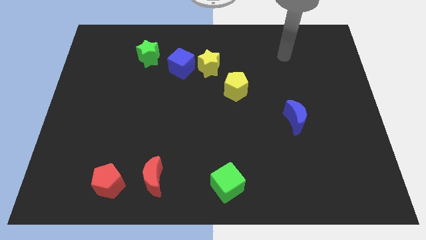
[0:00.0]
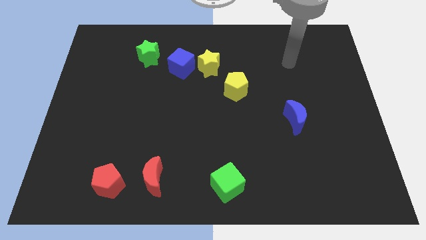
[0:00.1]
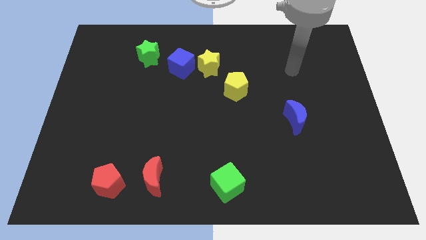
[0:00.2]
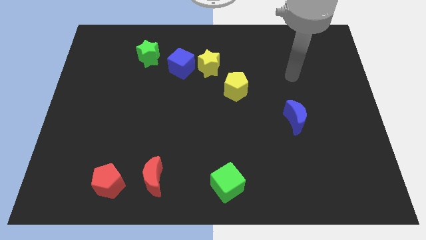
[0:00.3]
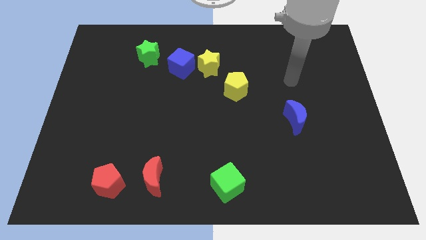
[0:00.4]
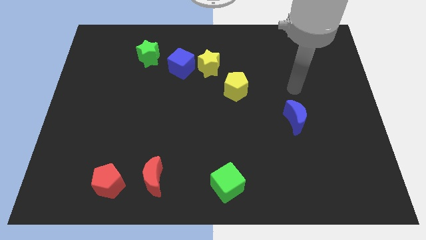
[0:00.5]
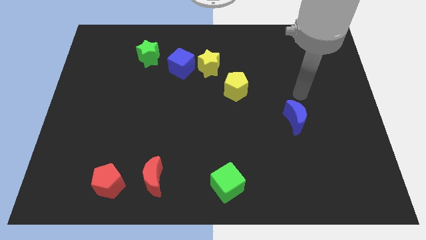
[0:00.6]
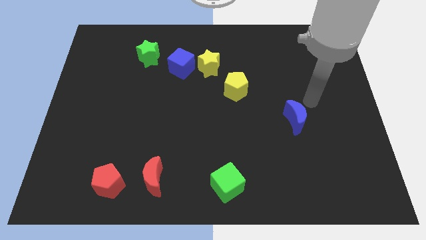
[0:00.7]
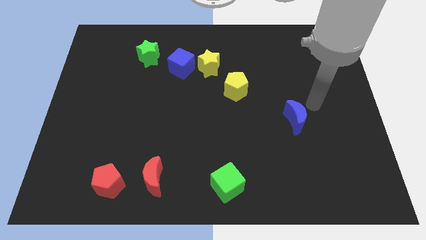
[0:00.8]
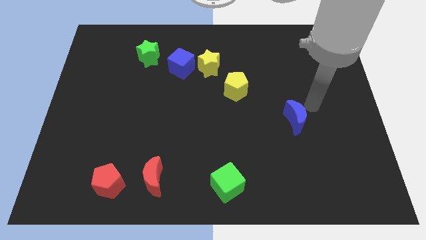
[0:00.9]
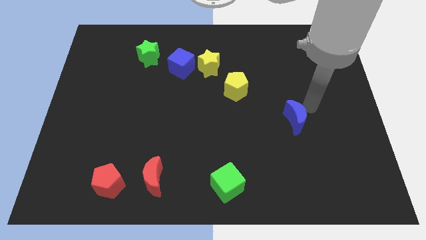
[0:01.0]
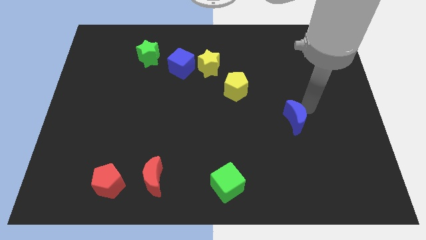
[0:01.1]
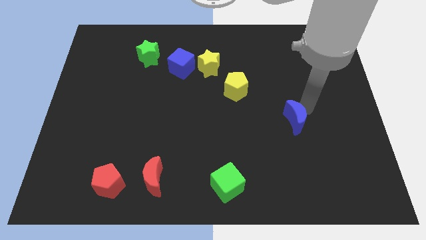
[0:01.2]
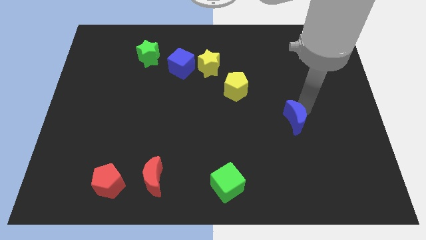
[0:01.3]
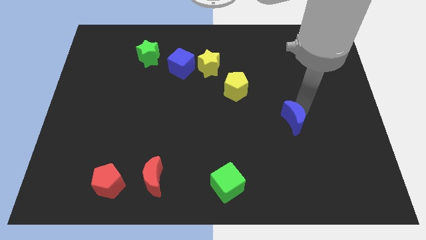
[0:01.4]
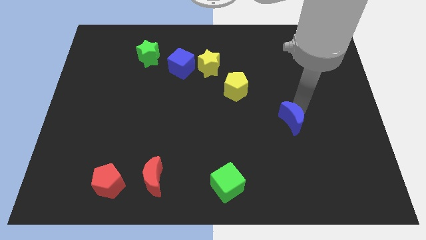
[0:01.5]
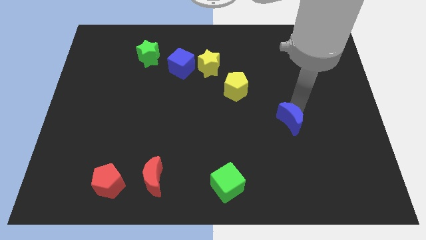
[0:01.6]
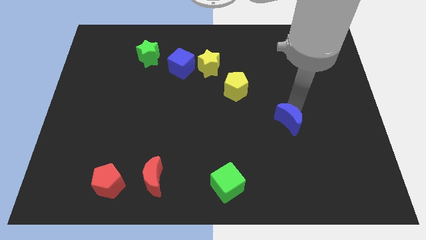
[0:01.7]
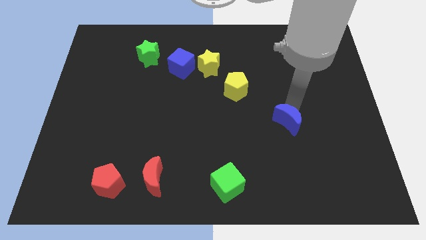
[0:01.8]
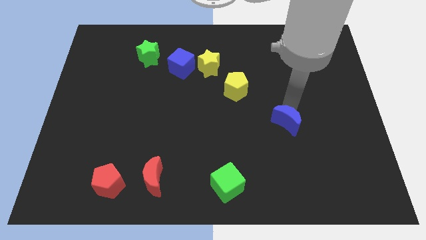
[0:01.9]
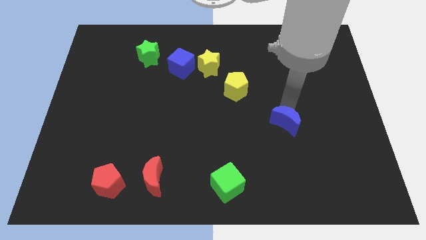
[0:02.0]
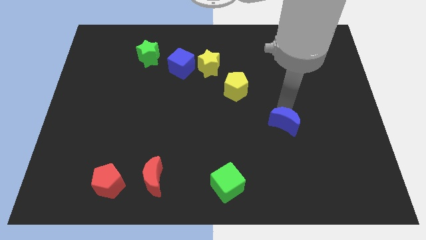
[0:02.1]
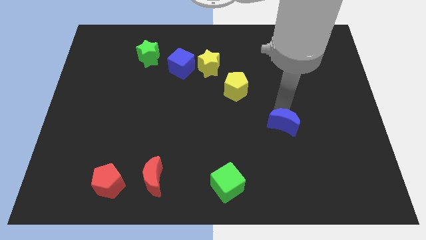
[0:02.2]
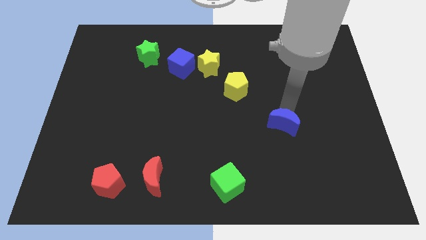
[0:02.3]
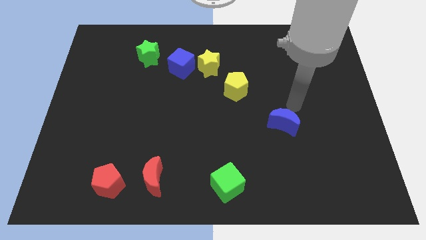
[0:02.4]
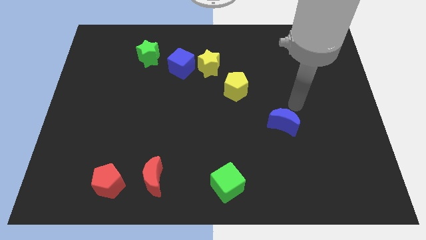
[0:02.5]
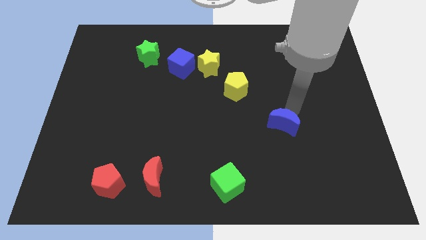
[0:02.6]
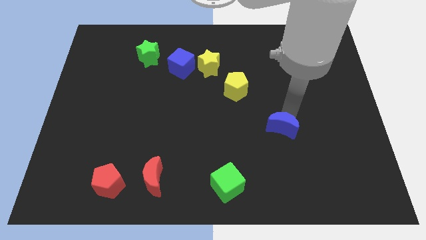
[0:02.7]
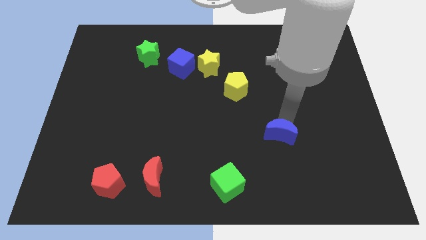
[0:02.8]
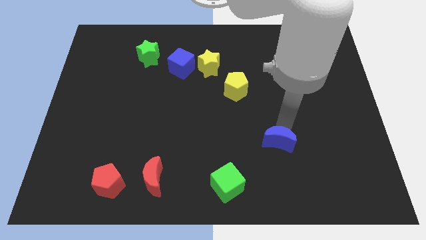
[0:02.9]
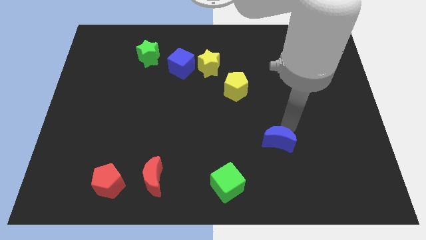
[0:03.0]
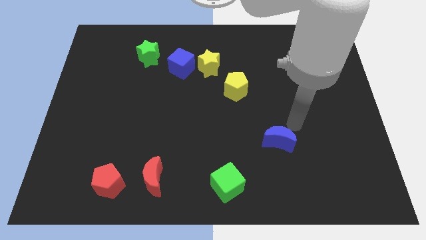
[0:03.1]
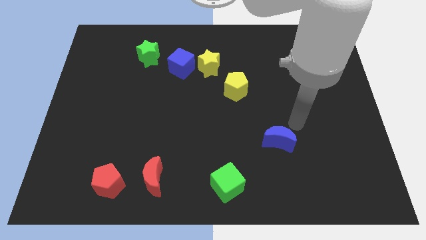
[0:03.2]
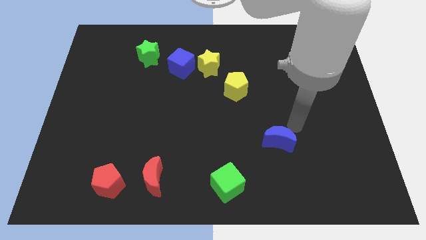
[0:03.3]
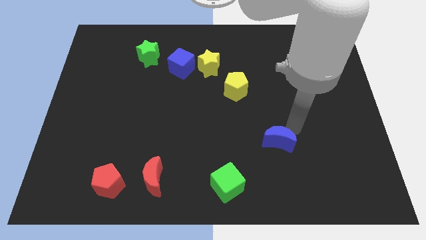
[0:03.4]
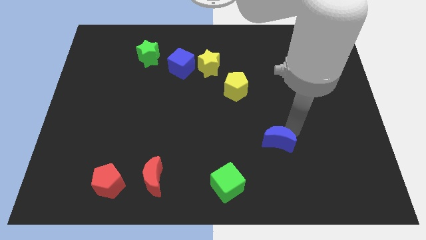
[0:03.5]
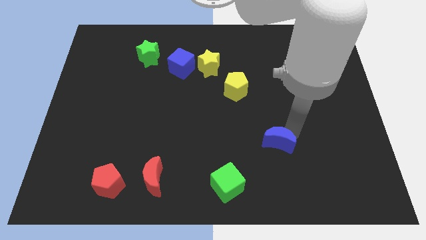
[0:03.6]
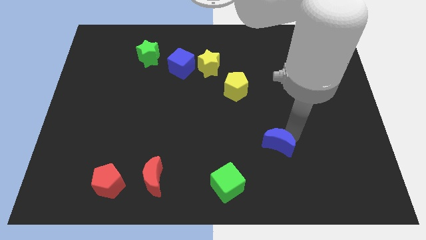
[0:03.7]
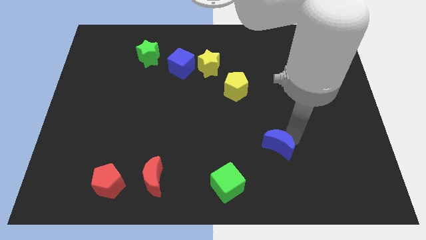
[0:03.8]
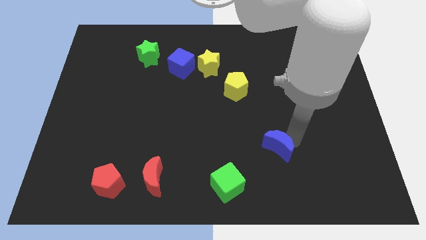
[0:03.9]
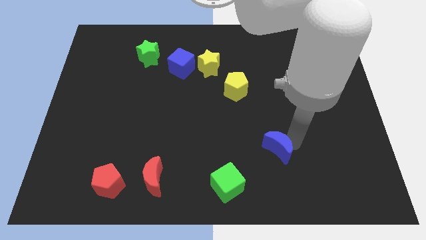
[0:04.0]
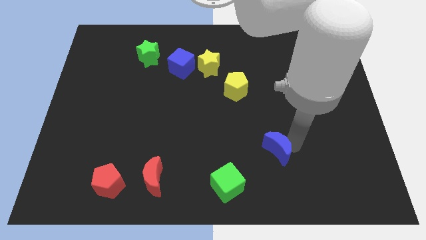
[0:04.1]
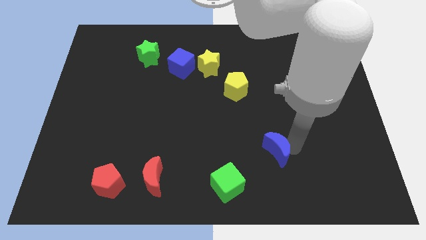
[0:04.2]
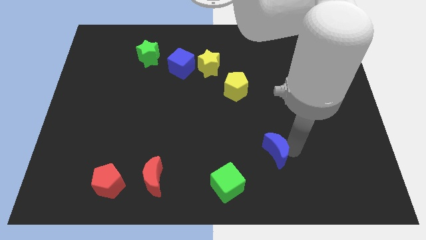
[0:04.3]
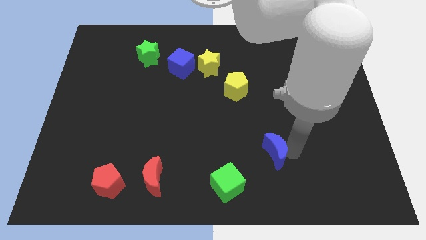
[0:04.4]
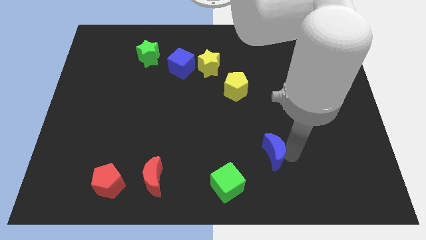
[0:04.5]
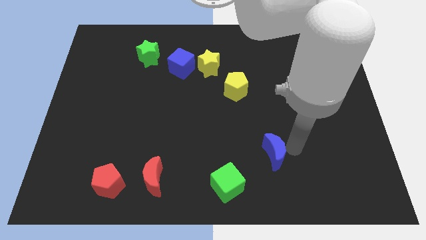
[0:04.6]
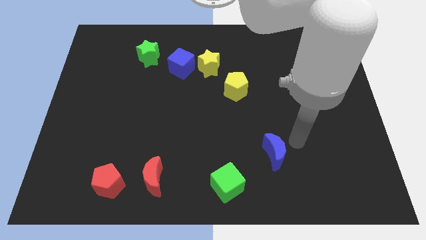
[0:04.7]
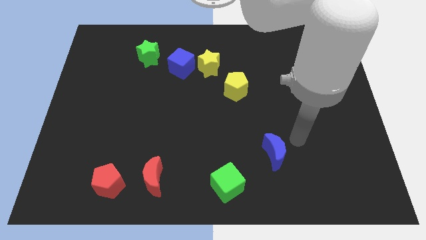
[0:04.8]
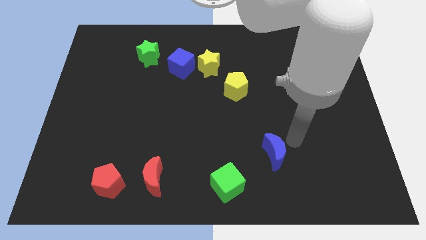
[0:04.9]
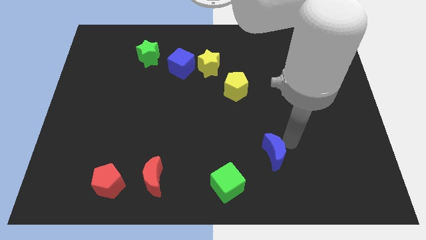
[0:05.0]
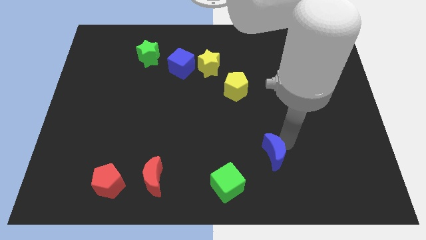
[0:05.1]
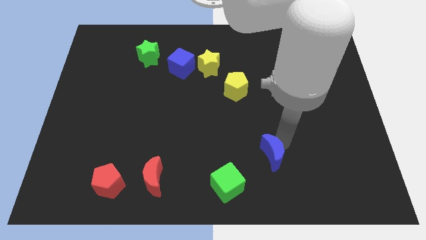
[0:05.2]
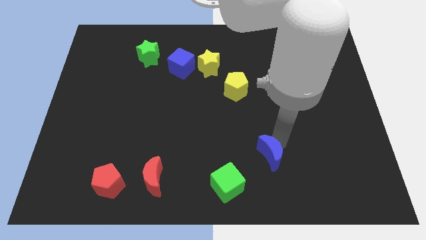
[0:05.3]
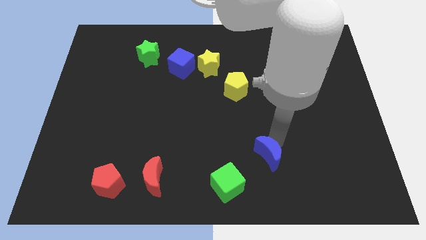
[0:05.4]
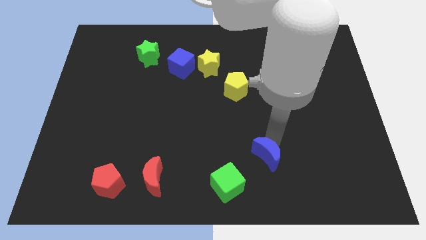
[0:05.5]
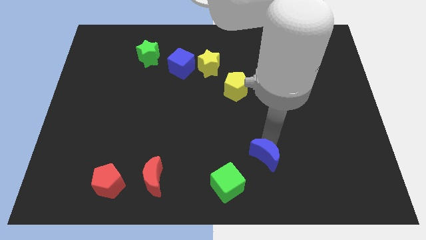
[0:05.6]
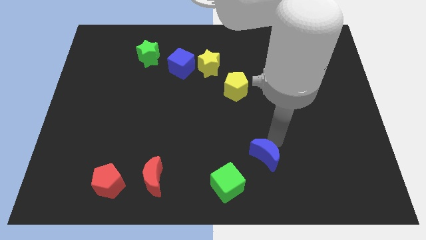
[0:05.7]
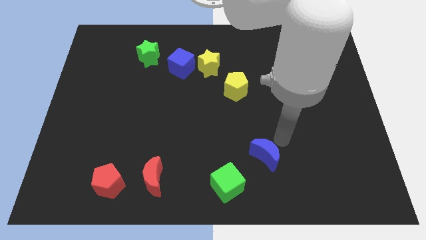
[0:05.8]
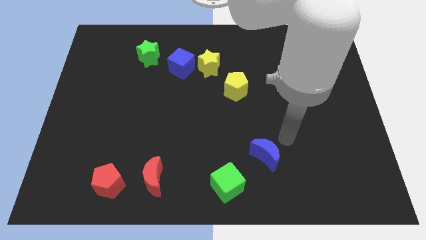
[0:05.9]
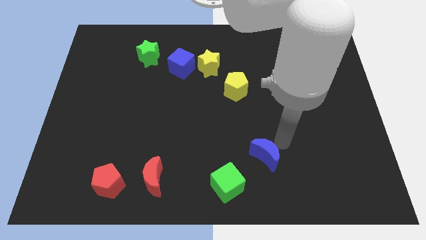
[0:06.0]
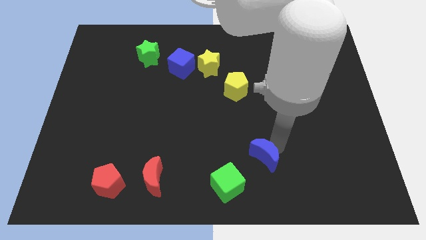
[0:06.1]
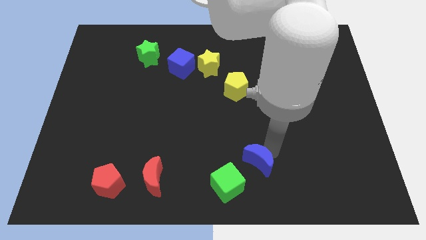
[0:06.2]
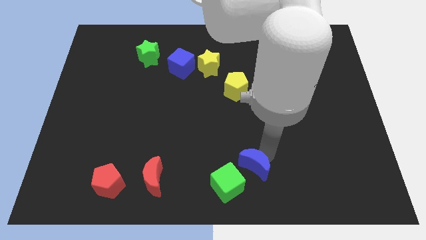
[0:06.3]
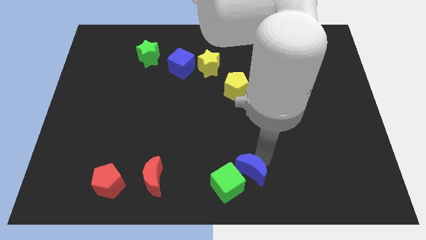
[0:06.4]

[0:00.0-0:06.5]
push the blue moon towards the green cube

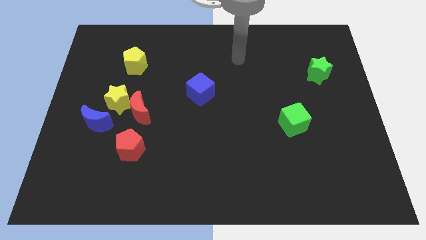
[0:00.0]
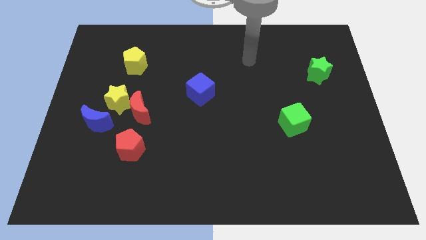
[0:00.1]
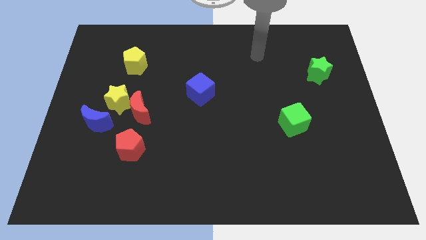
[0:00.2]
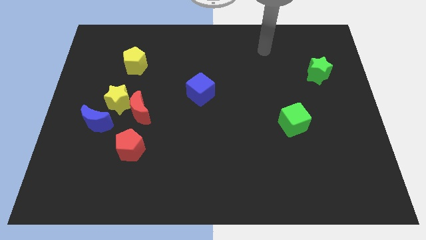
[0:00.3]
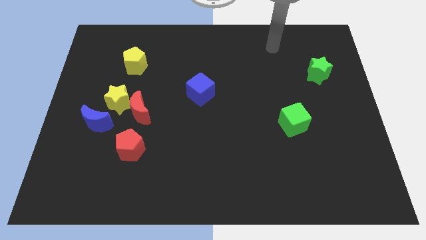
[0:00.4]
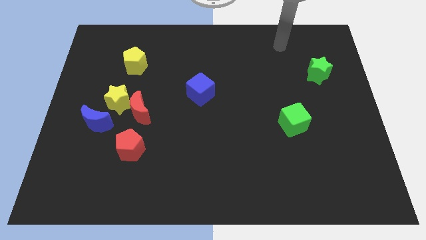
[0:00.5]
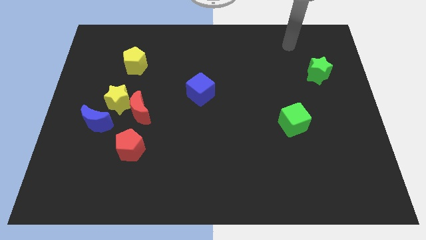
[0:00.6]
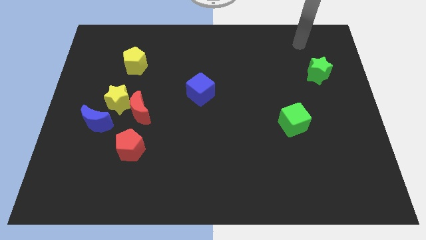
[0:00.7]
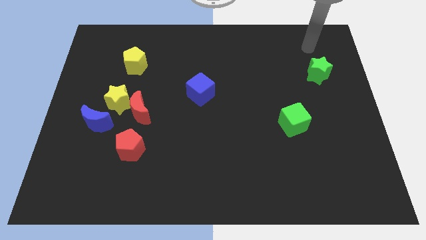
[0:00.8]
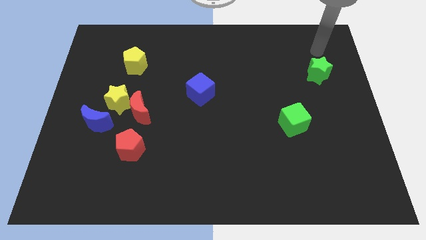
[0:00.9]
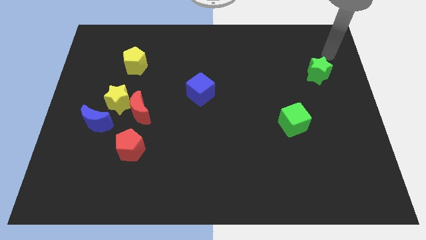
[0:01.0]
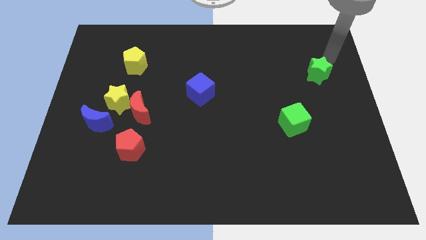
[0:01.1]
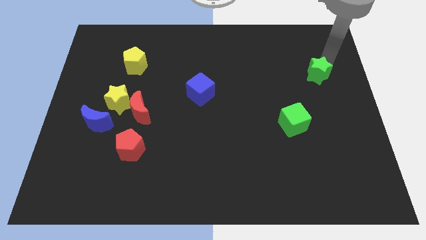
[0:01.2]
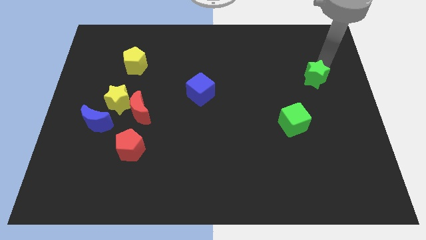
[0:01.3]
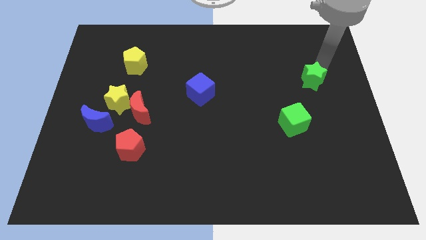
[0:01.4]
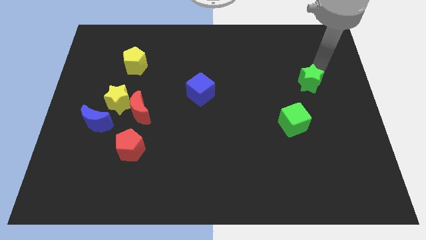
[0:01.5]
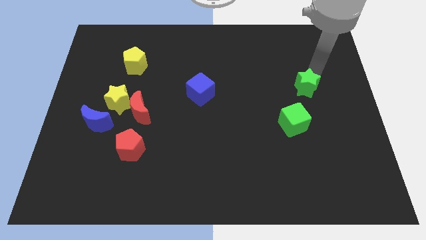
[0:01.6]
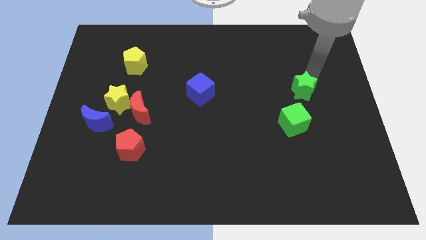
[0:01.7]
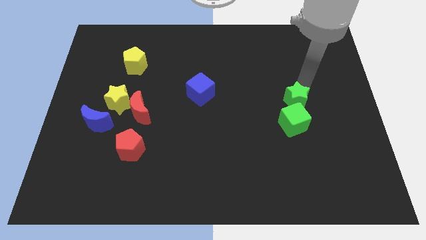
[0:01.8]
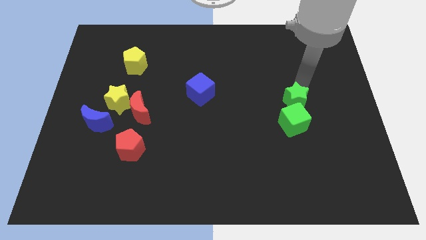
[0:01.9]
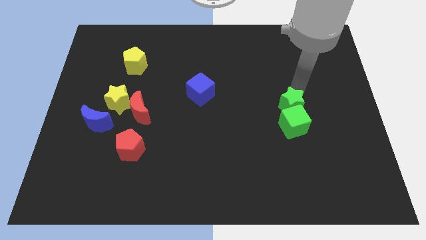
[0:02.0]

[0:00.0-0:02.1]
put the green star towards the green cube
